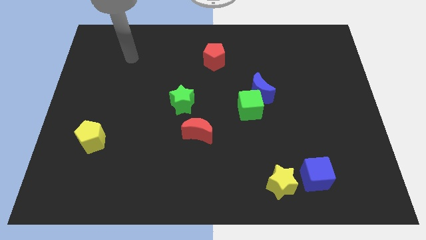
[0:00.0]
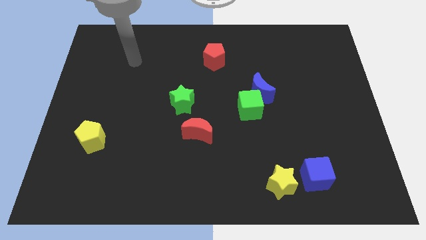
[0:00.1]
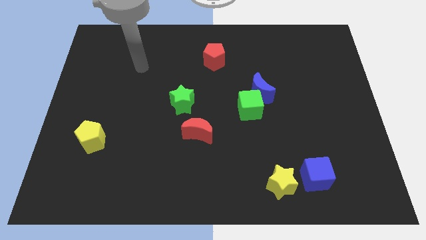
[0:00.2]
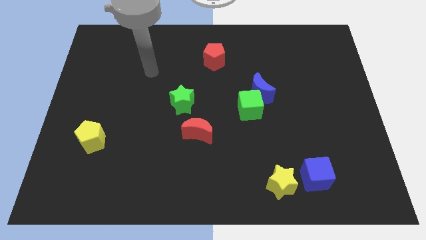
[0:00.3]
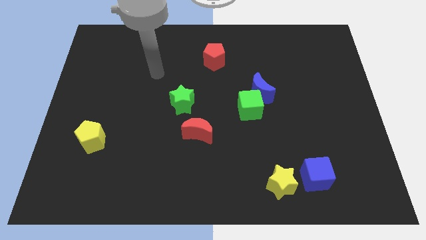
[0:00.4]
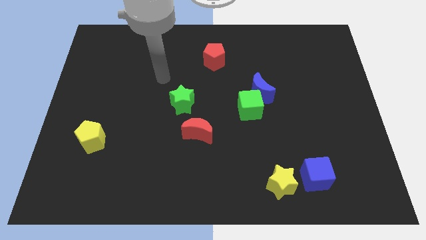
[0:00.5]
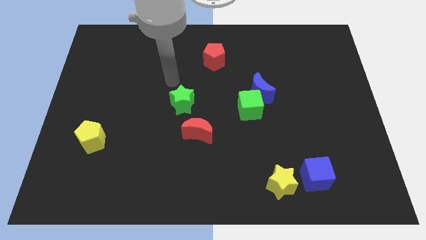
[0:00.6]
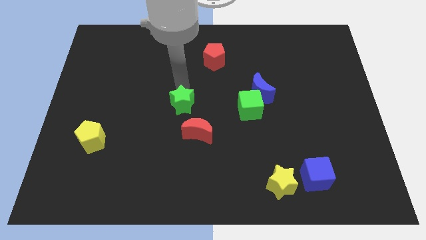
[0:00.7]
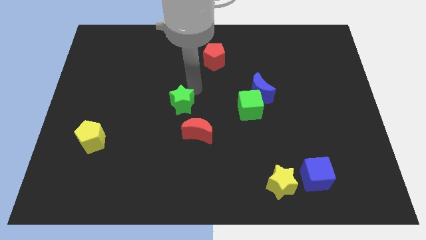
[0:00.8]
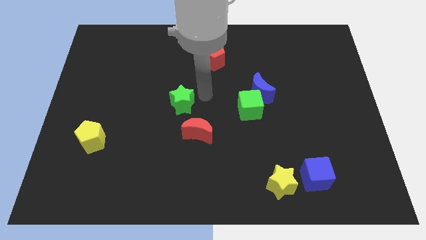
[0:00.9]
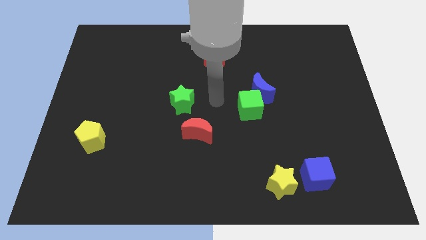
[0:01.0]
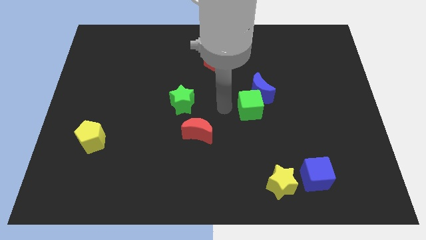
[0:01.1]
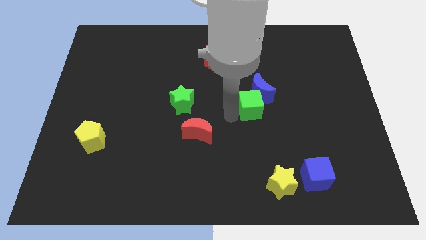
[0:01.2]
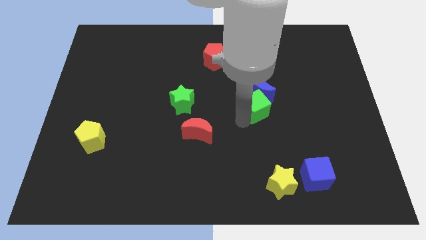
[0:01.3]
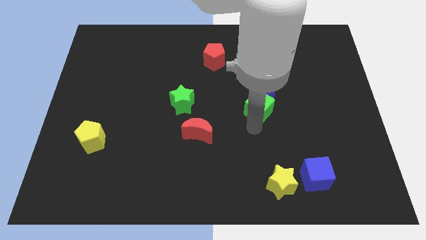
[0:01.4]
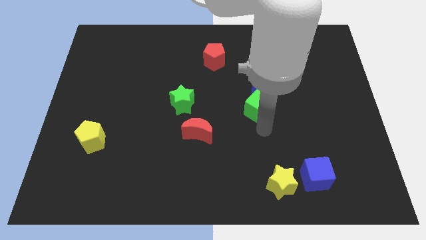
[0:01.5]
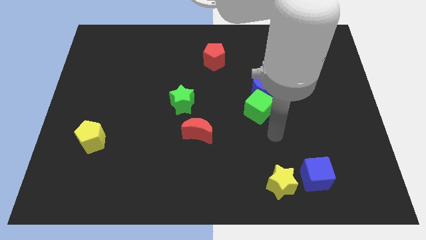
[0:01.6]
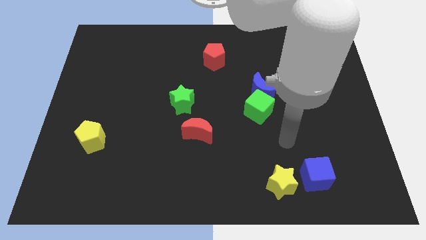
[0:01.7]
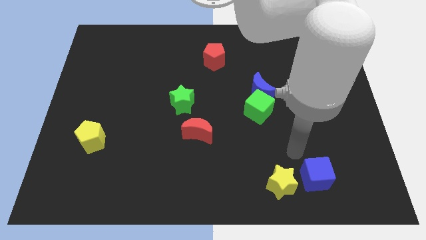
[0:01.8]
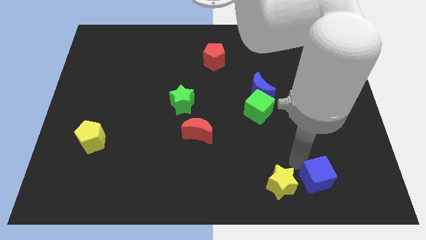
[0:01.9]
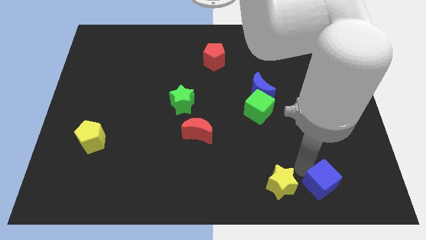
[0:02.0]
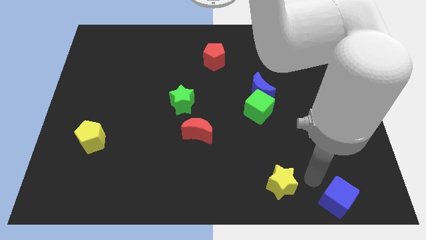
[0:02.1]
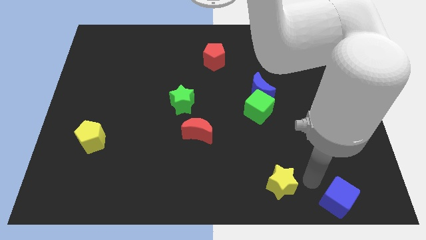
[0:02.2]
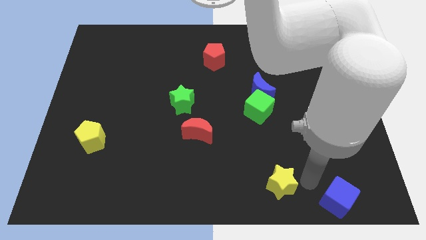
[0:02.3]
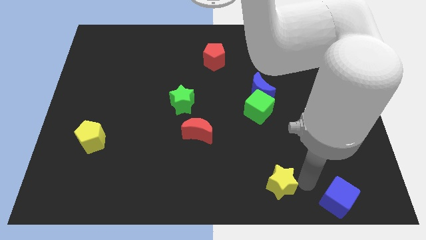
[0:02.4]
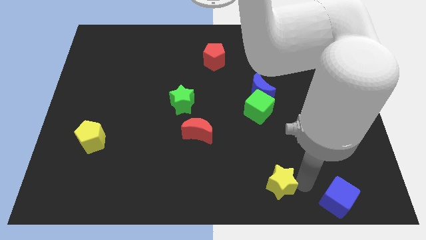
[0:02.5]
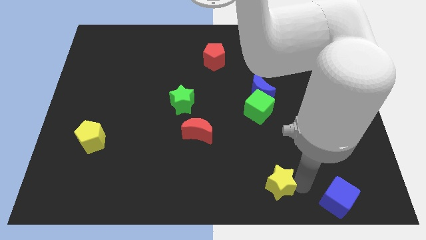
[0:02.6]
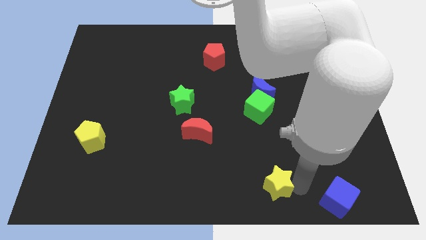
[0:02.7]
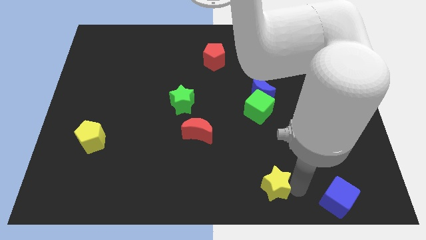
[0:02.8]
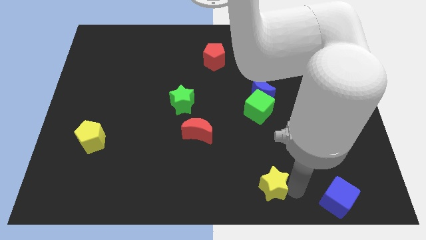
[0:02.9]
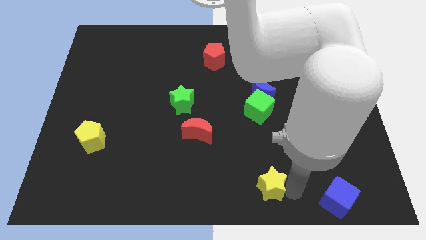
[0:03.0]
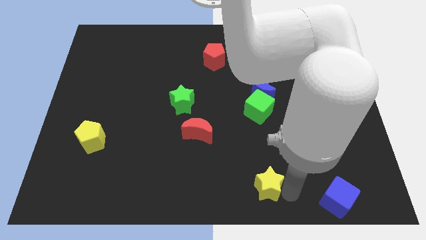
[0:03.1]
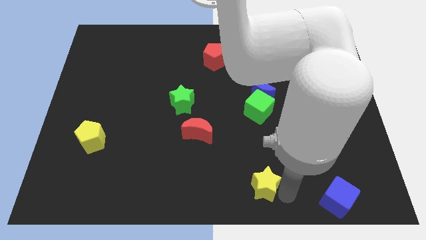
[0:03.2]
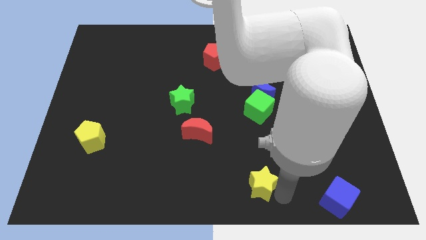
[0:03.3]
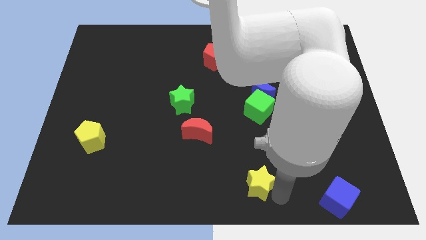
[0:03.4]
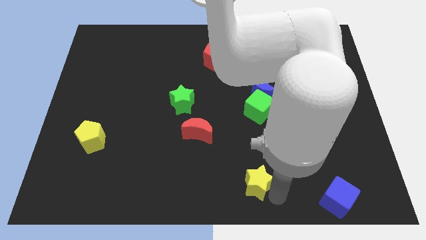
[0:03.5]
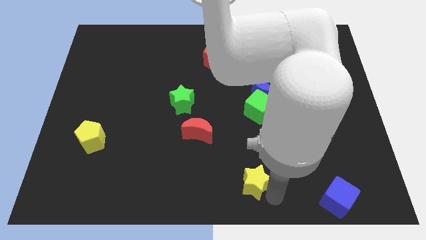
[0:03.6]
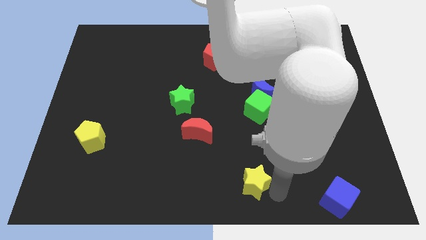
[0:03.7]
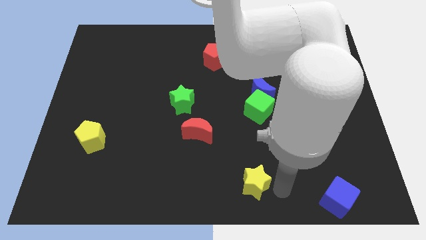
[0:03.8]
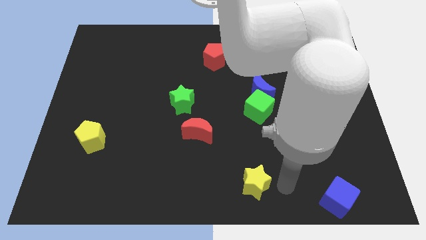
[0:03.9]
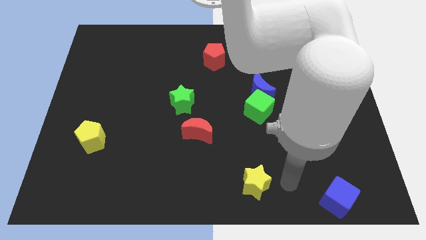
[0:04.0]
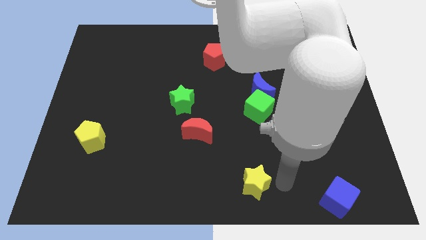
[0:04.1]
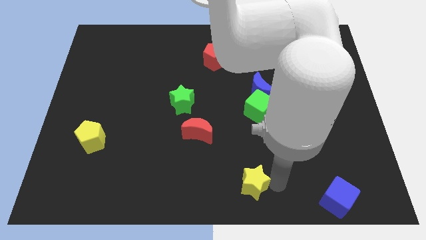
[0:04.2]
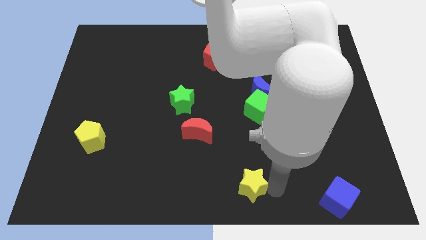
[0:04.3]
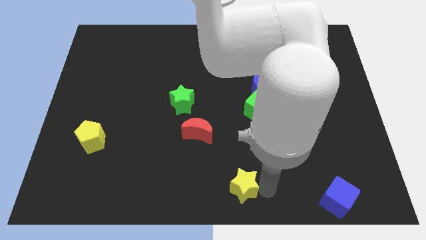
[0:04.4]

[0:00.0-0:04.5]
slide the yellow star a little bit to the left

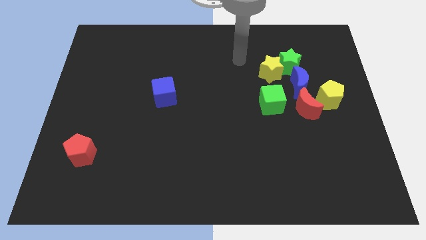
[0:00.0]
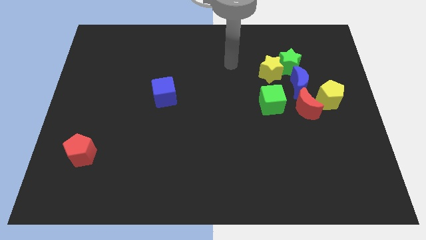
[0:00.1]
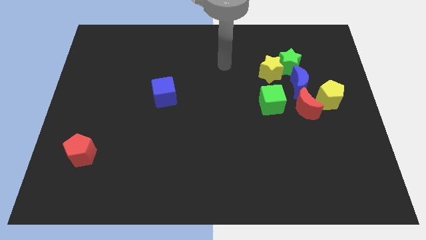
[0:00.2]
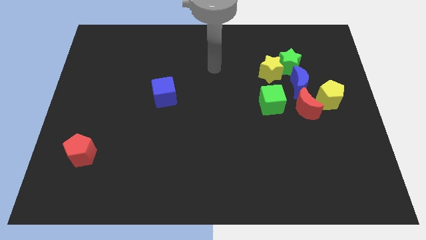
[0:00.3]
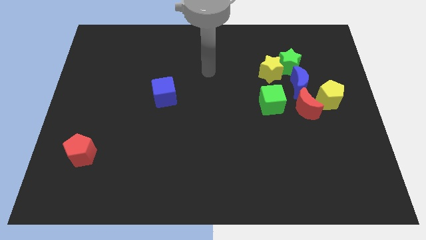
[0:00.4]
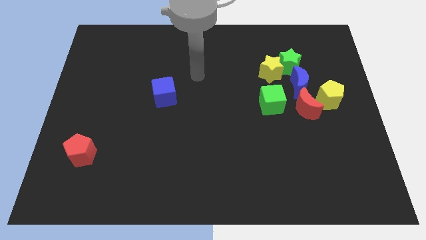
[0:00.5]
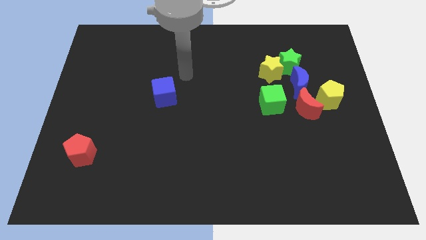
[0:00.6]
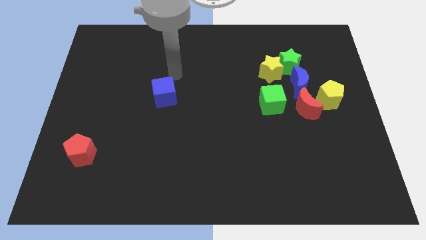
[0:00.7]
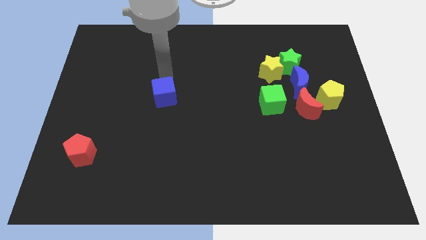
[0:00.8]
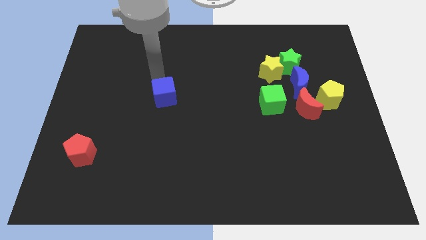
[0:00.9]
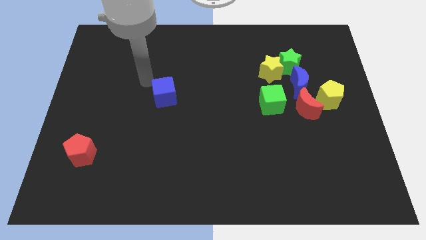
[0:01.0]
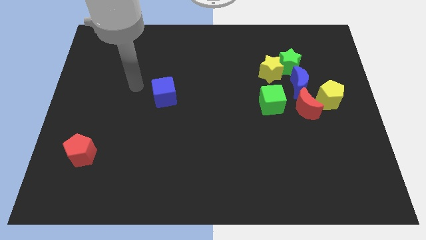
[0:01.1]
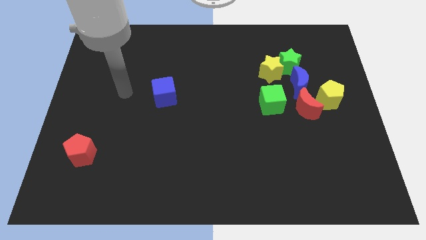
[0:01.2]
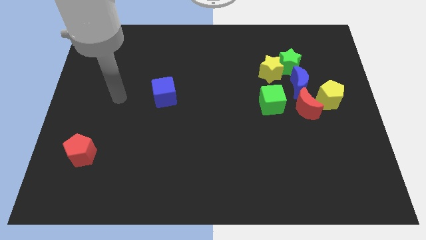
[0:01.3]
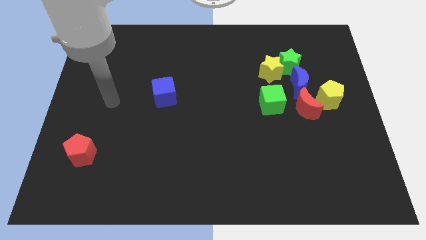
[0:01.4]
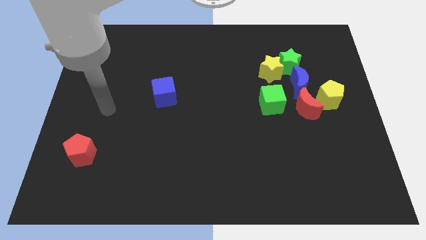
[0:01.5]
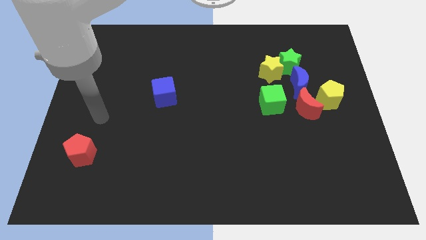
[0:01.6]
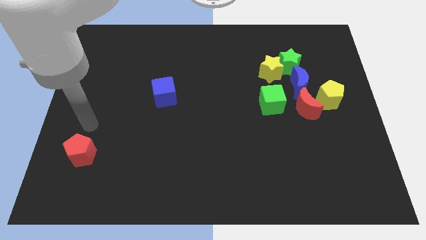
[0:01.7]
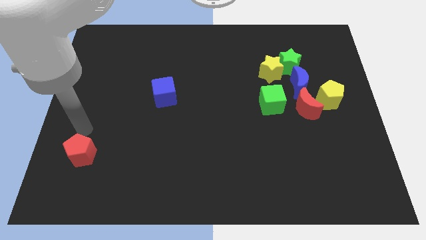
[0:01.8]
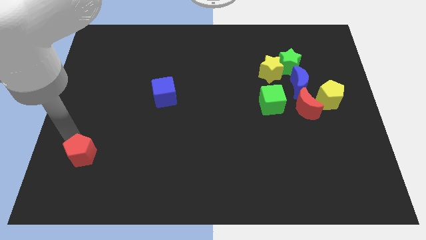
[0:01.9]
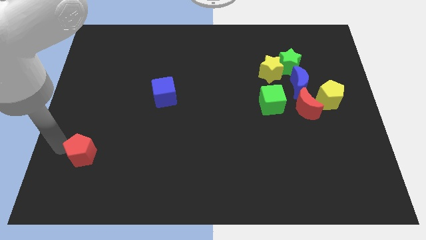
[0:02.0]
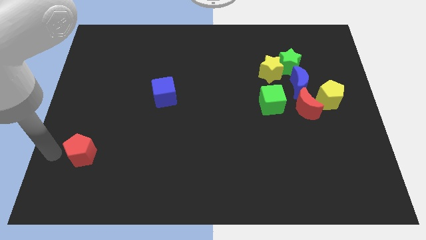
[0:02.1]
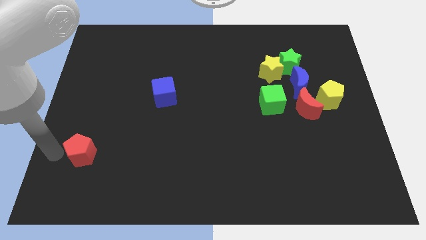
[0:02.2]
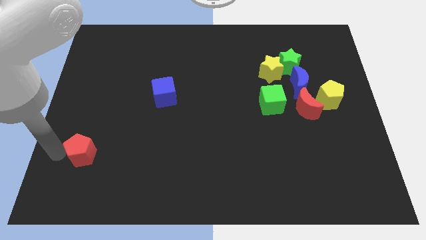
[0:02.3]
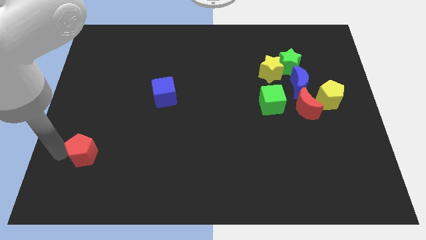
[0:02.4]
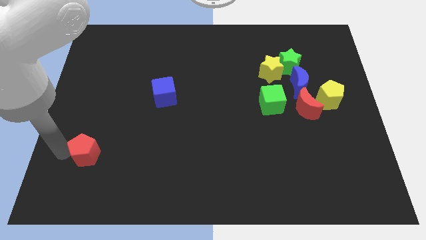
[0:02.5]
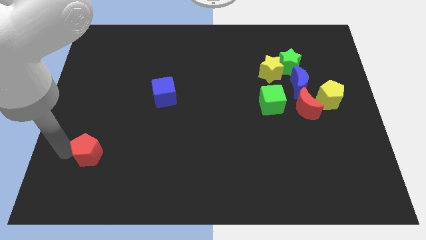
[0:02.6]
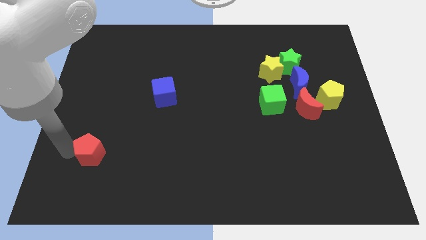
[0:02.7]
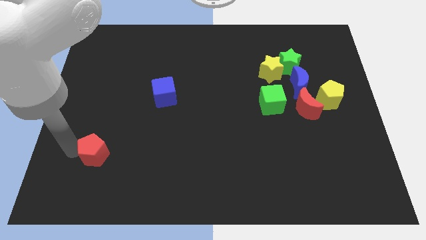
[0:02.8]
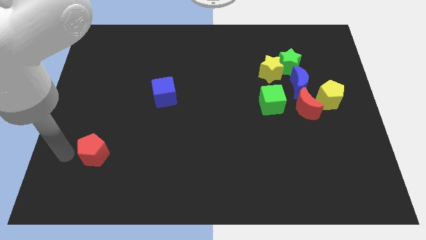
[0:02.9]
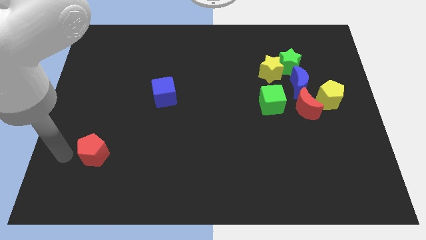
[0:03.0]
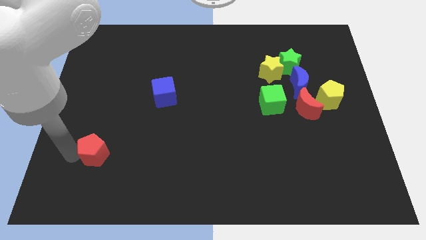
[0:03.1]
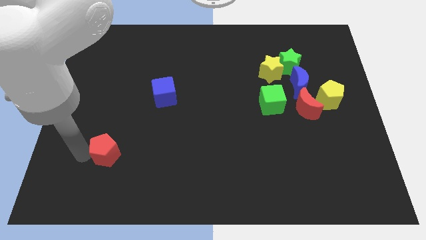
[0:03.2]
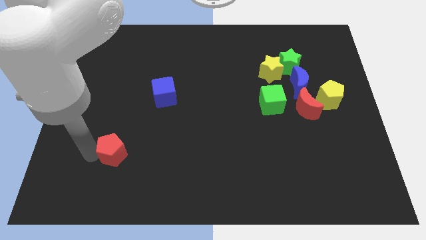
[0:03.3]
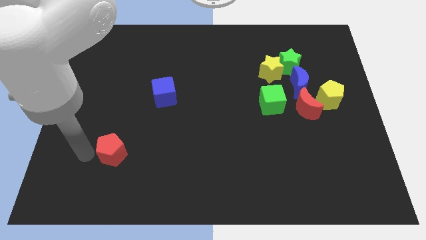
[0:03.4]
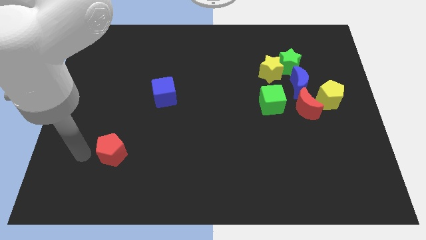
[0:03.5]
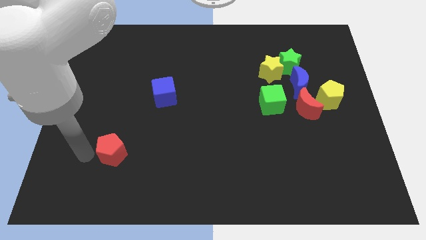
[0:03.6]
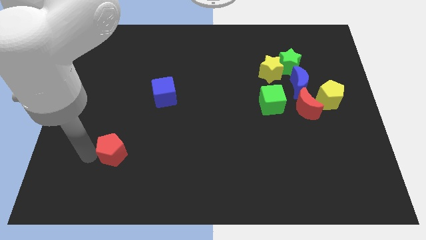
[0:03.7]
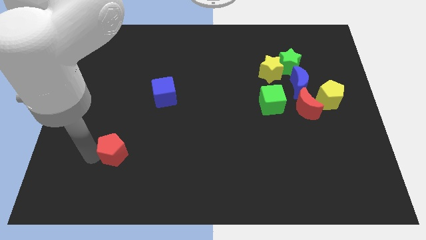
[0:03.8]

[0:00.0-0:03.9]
slightly move the red pentagon right
